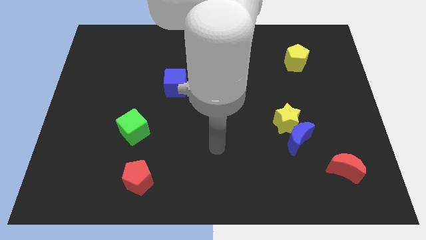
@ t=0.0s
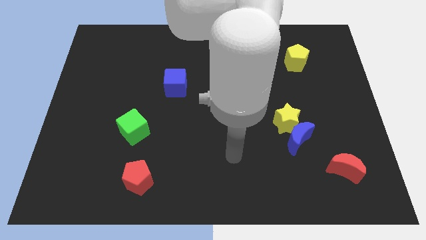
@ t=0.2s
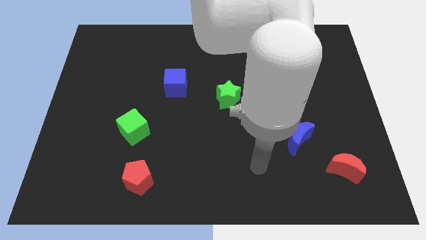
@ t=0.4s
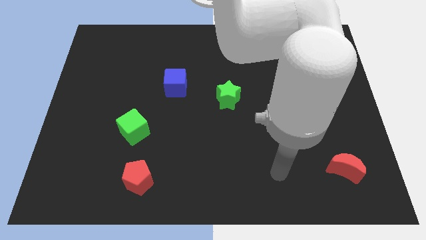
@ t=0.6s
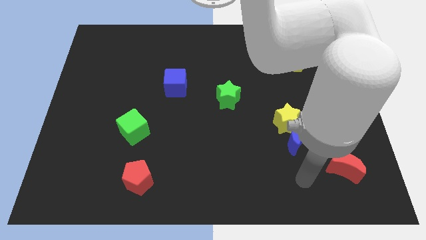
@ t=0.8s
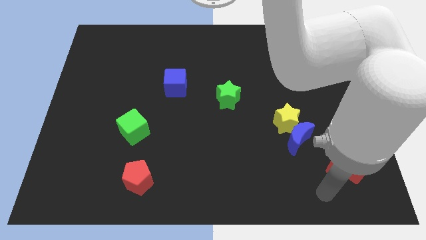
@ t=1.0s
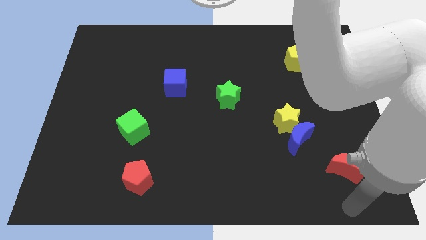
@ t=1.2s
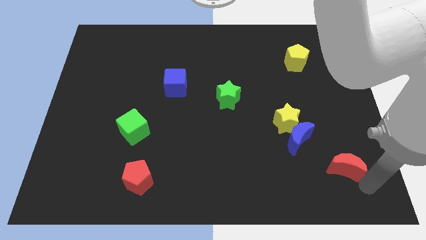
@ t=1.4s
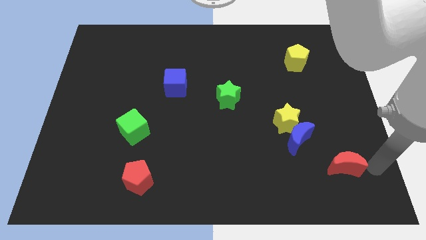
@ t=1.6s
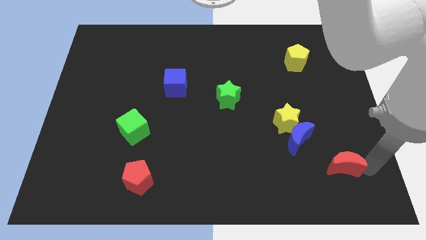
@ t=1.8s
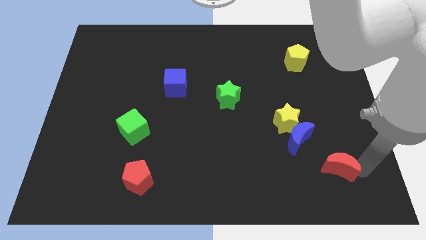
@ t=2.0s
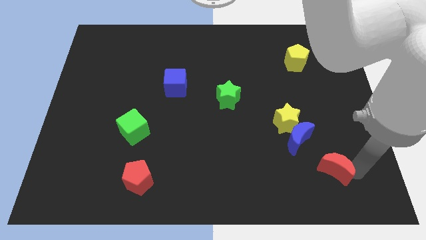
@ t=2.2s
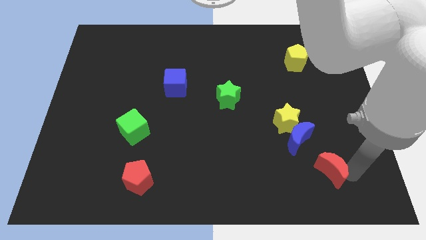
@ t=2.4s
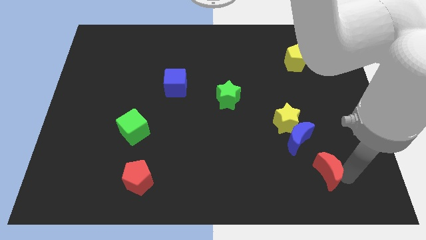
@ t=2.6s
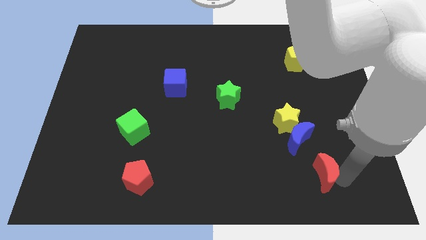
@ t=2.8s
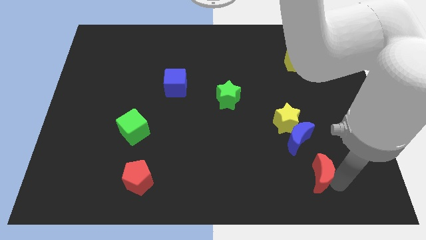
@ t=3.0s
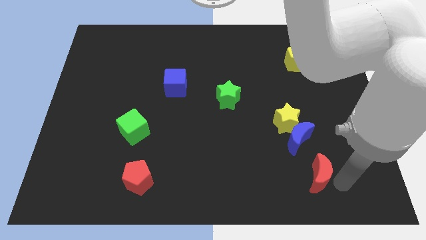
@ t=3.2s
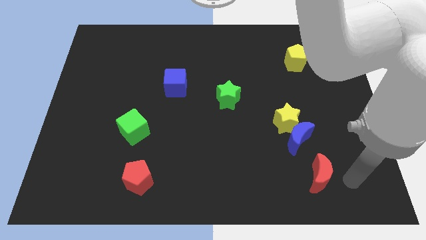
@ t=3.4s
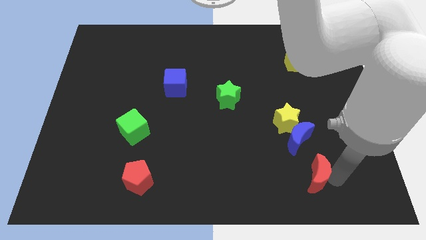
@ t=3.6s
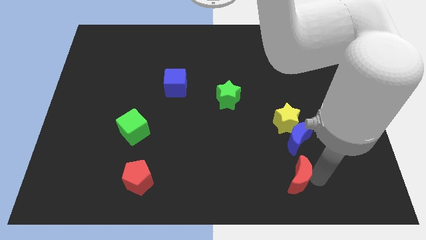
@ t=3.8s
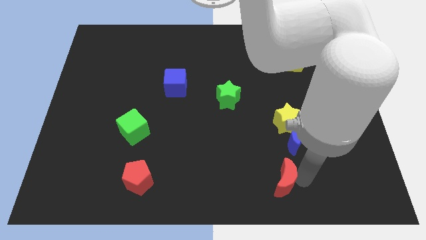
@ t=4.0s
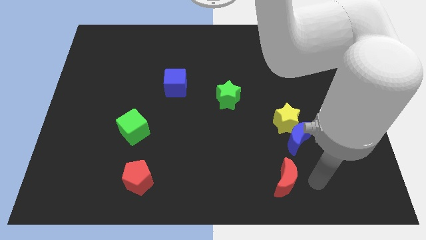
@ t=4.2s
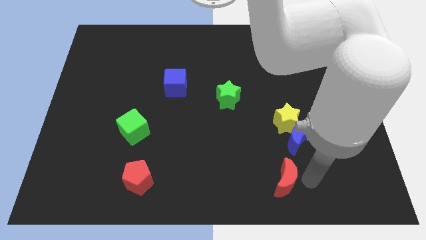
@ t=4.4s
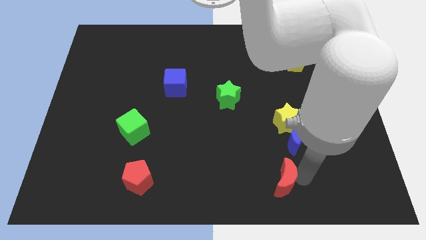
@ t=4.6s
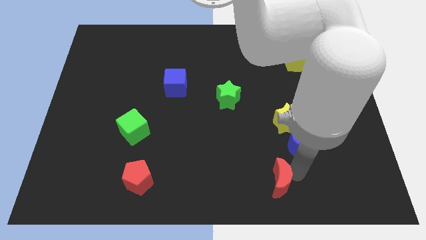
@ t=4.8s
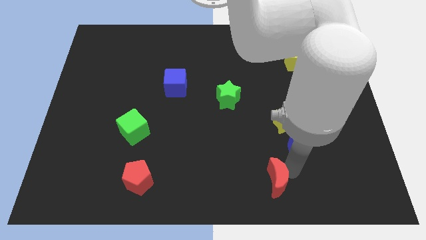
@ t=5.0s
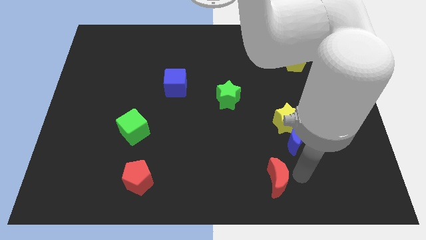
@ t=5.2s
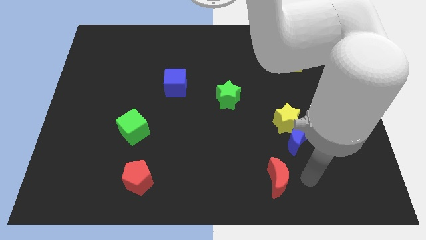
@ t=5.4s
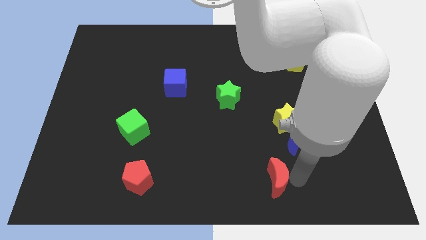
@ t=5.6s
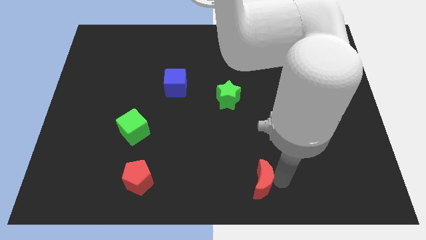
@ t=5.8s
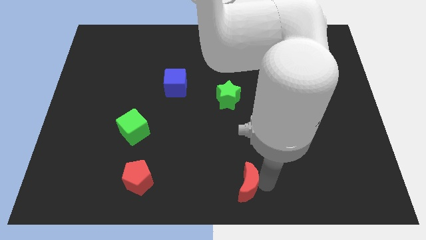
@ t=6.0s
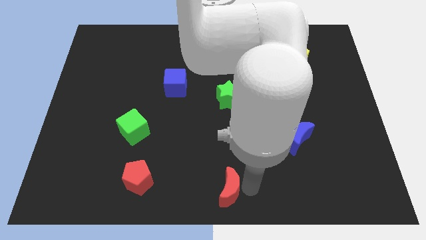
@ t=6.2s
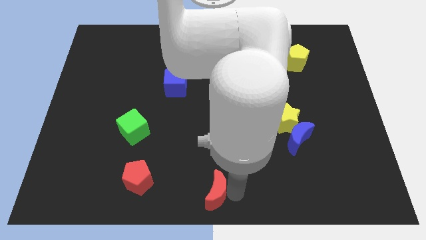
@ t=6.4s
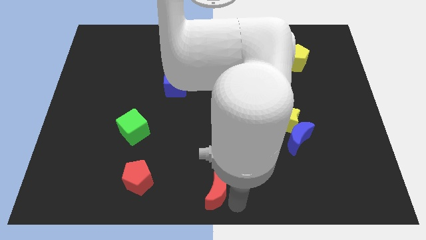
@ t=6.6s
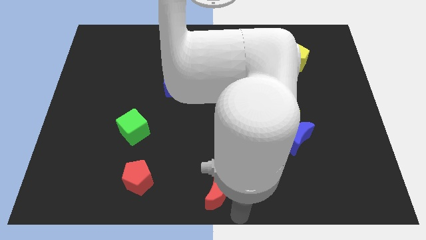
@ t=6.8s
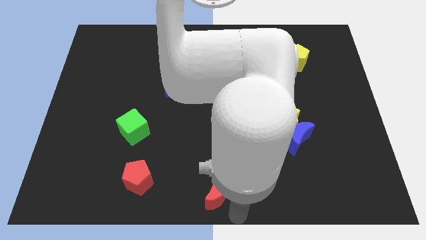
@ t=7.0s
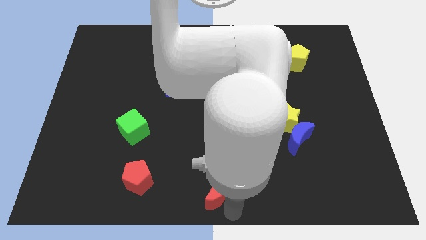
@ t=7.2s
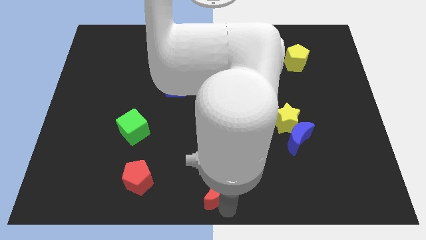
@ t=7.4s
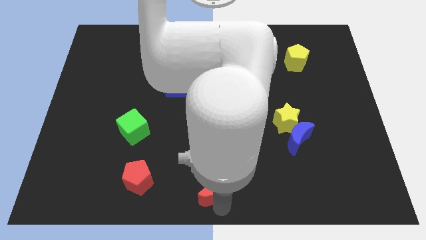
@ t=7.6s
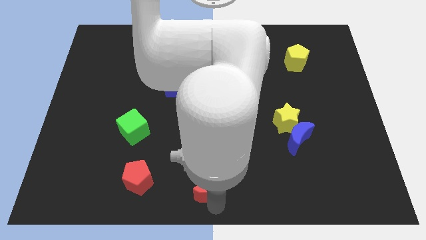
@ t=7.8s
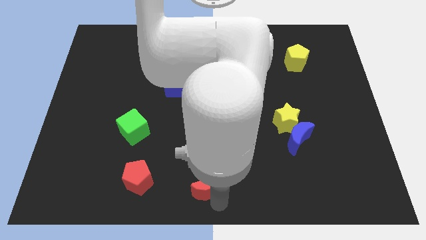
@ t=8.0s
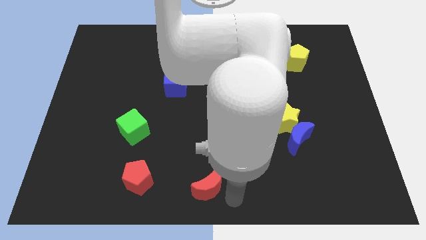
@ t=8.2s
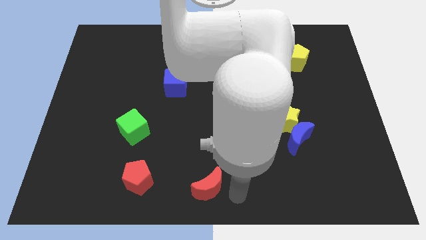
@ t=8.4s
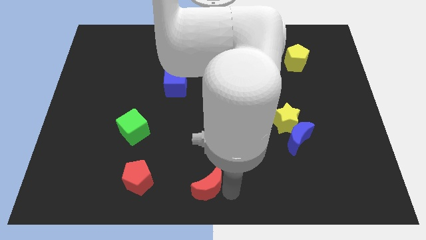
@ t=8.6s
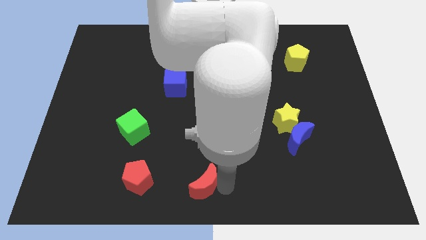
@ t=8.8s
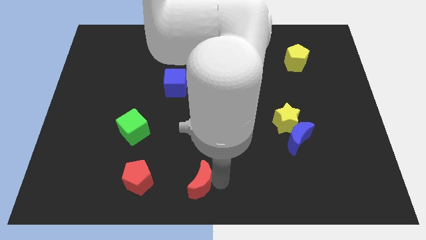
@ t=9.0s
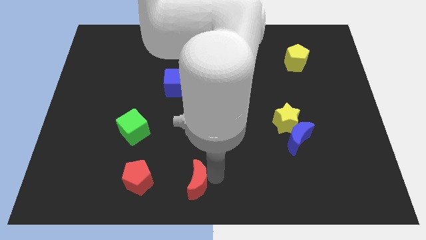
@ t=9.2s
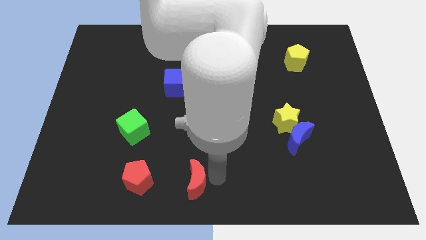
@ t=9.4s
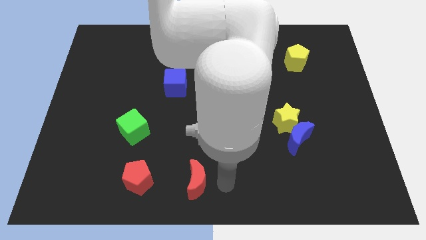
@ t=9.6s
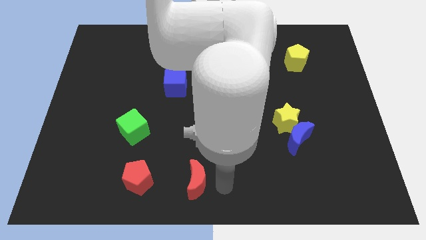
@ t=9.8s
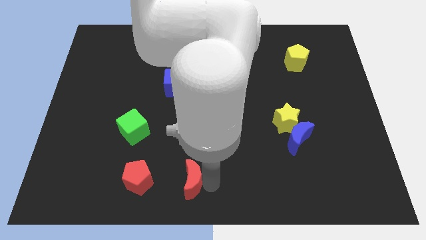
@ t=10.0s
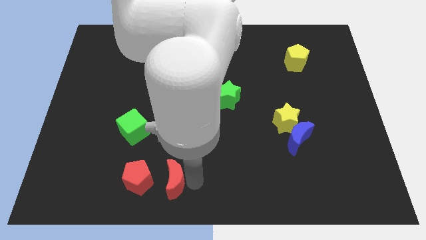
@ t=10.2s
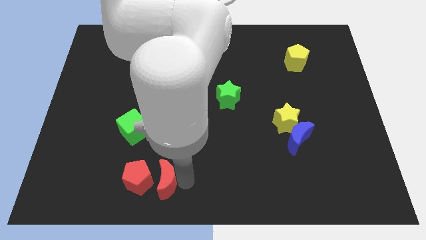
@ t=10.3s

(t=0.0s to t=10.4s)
slide the red moon close to the red pentagon
